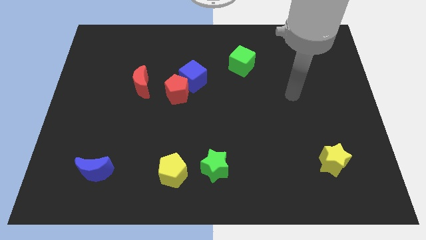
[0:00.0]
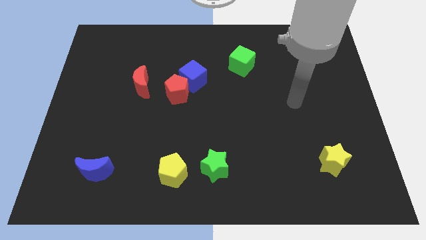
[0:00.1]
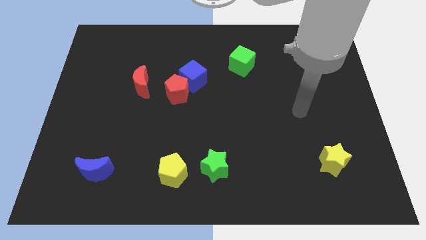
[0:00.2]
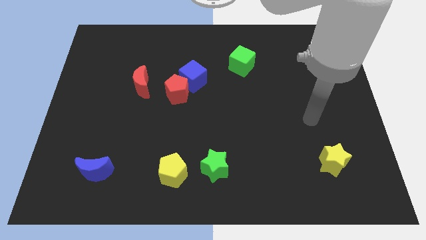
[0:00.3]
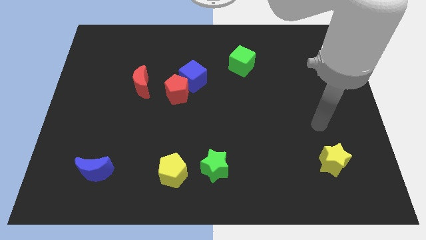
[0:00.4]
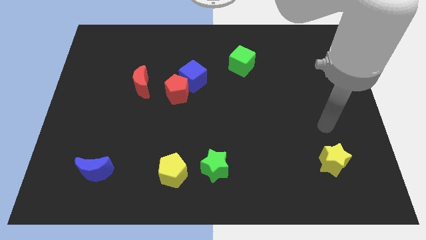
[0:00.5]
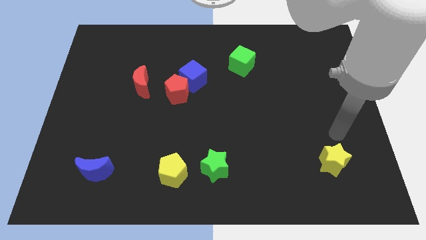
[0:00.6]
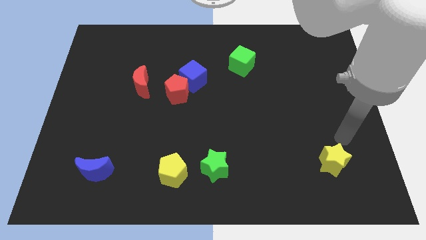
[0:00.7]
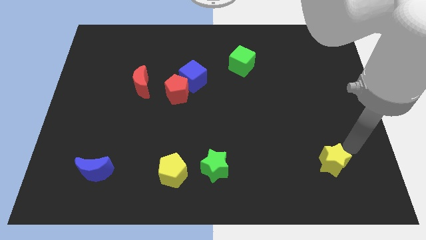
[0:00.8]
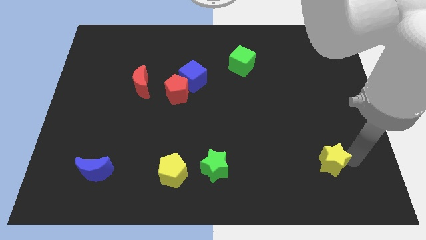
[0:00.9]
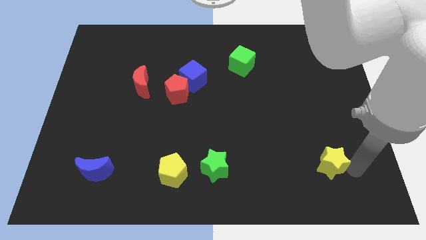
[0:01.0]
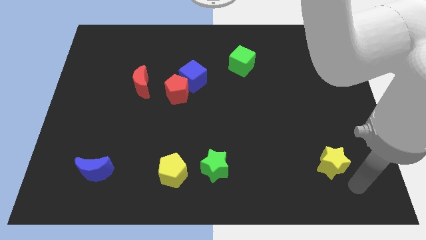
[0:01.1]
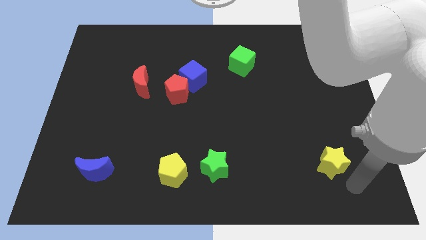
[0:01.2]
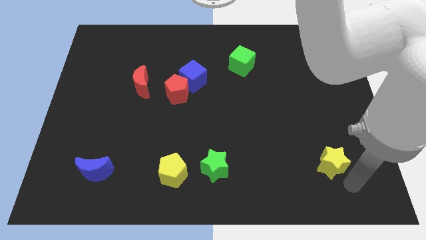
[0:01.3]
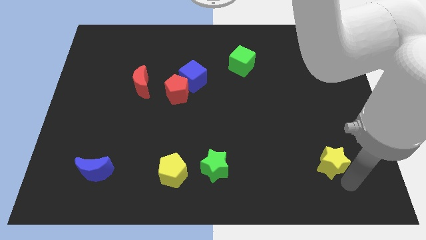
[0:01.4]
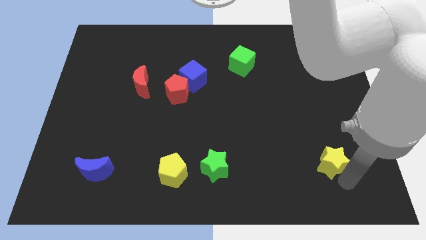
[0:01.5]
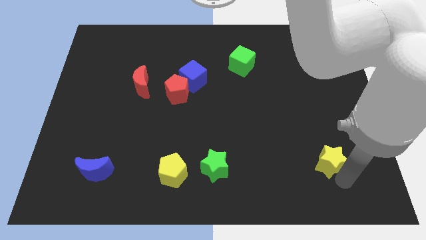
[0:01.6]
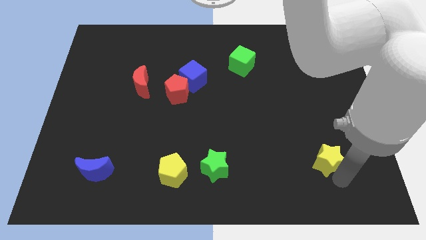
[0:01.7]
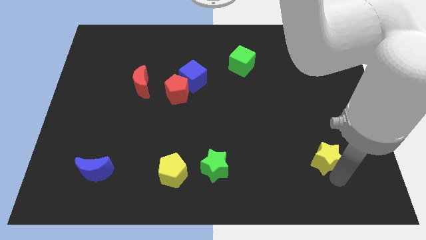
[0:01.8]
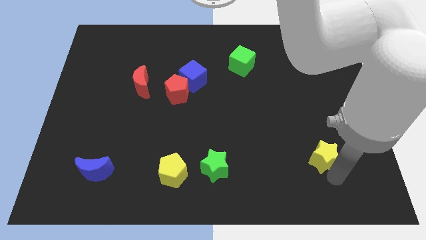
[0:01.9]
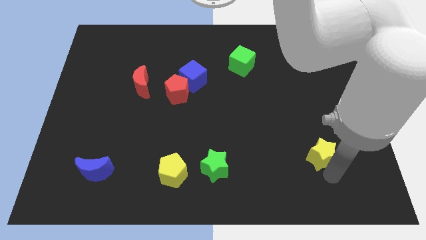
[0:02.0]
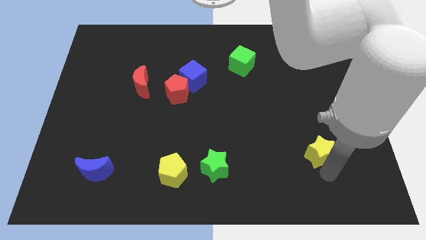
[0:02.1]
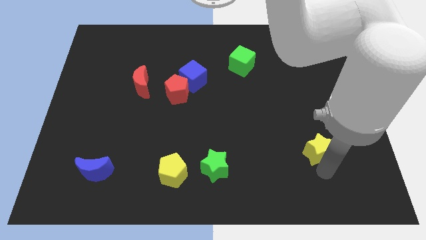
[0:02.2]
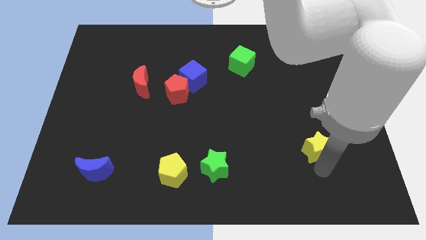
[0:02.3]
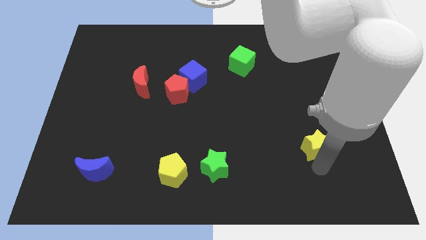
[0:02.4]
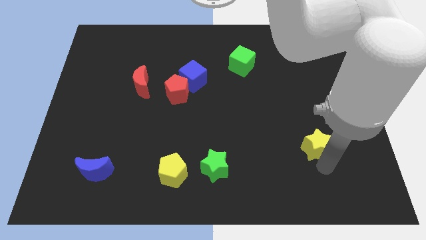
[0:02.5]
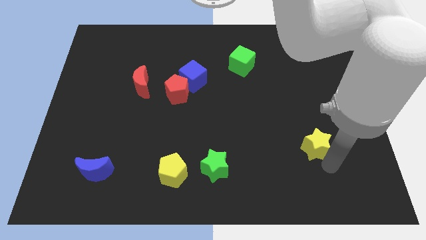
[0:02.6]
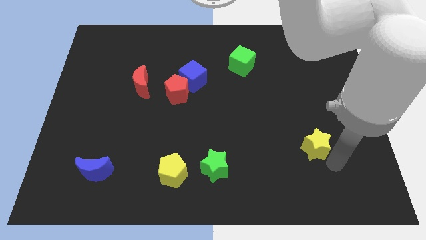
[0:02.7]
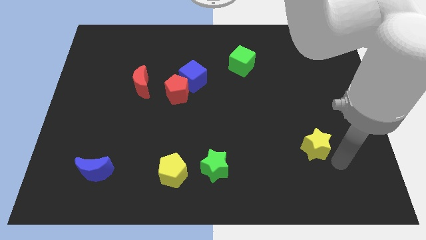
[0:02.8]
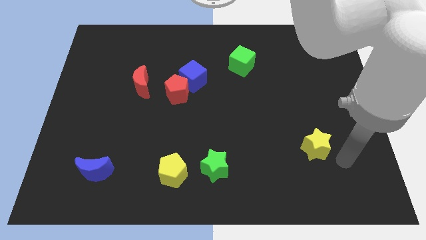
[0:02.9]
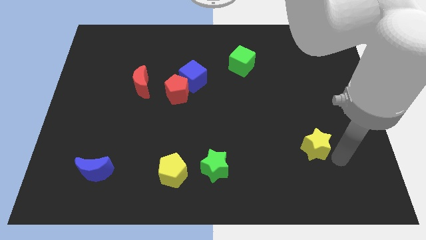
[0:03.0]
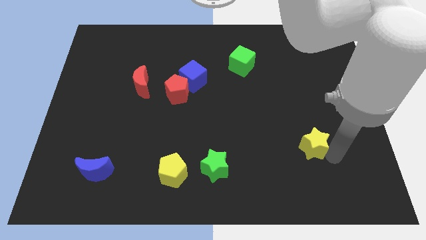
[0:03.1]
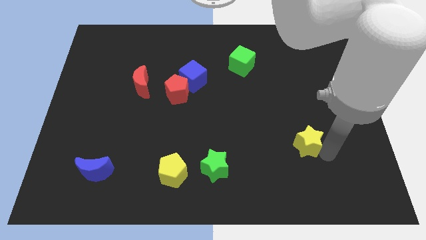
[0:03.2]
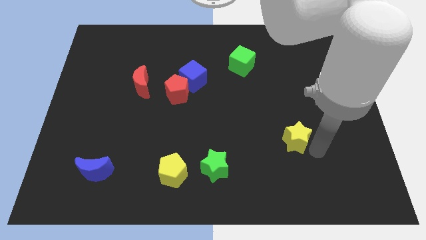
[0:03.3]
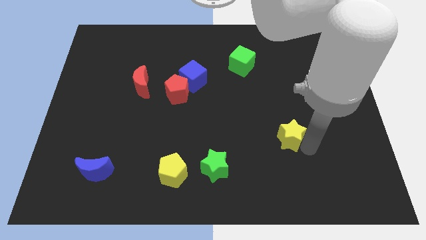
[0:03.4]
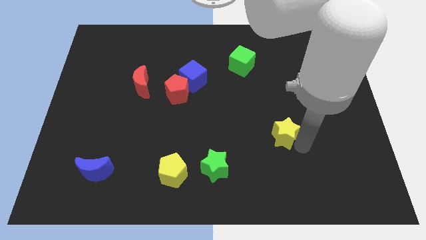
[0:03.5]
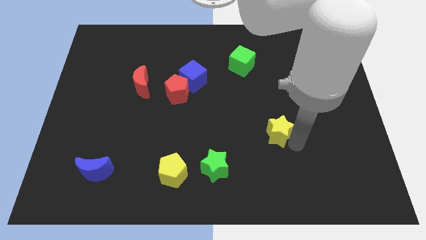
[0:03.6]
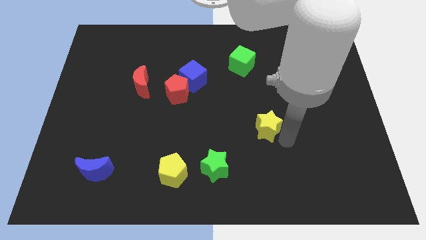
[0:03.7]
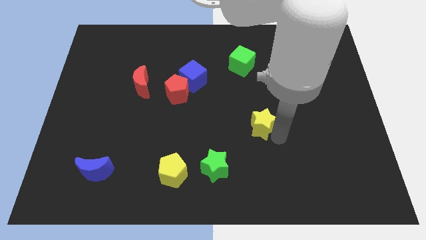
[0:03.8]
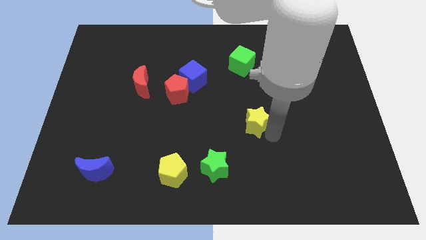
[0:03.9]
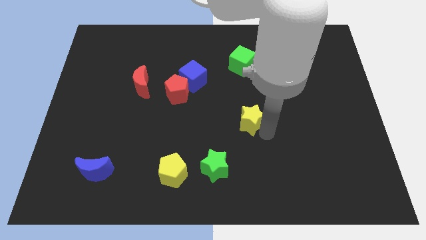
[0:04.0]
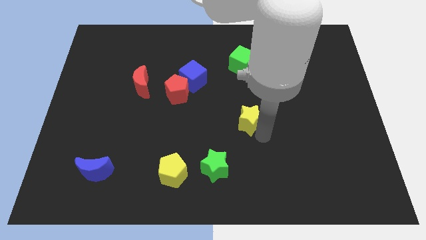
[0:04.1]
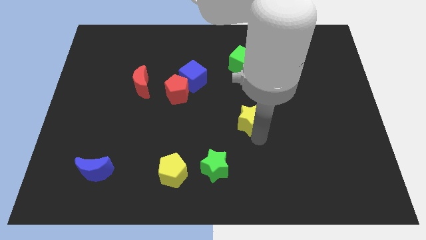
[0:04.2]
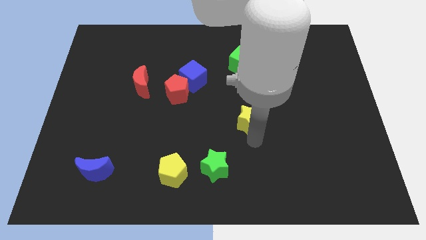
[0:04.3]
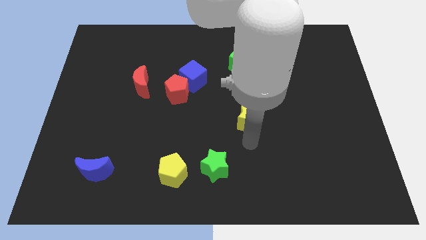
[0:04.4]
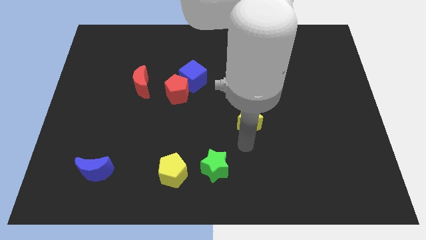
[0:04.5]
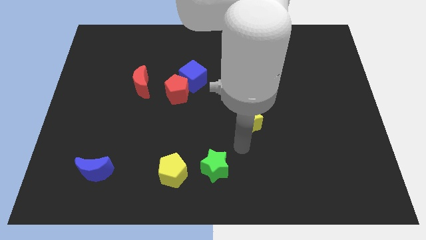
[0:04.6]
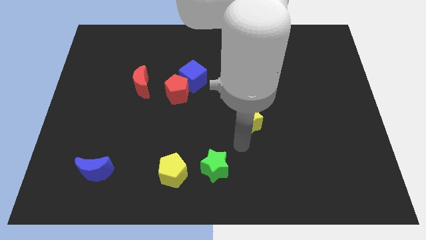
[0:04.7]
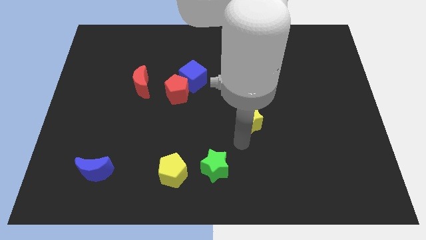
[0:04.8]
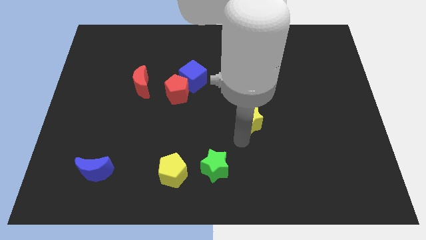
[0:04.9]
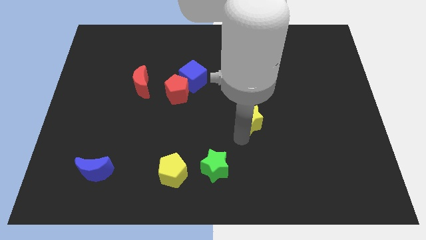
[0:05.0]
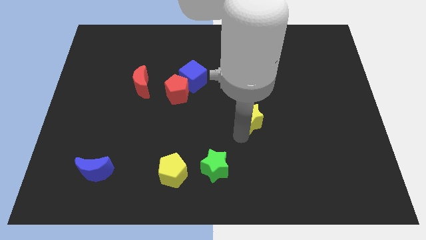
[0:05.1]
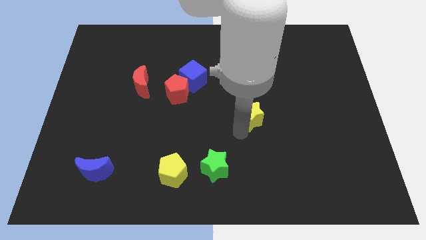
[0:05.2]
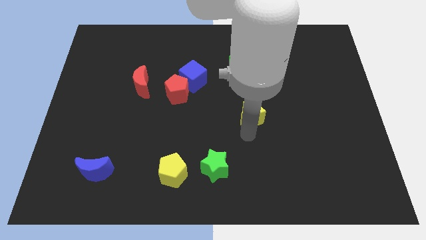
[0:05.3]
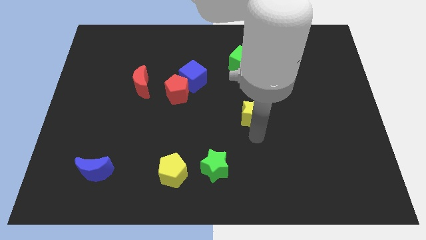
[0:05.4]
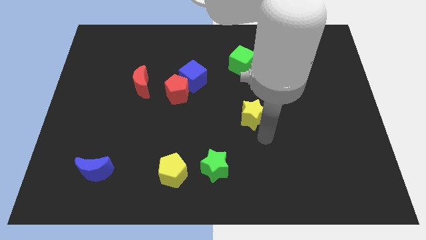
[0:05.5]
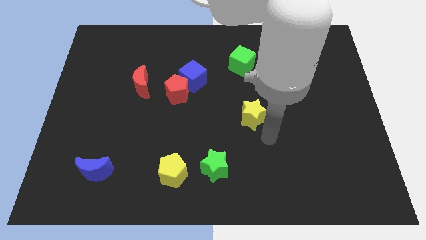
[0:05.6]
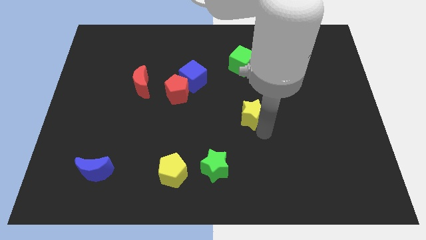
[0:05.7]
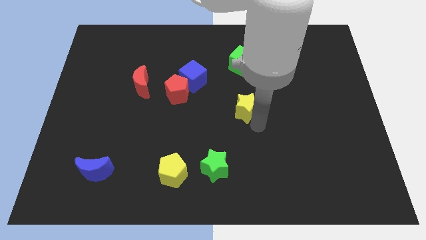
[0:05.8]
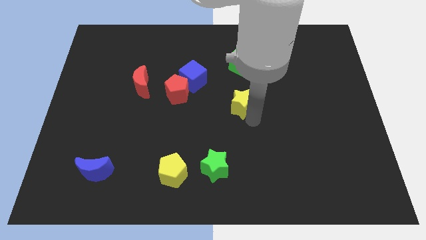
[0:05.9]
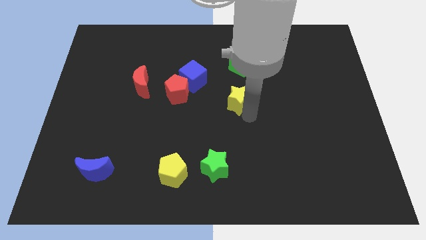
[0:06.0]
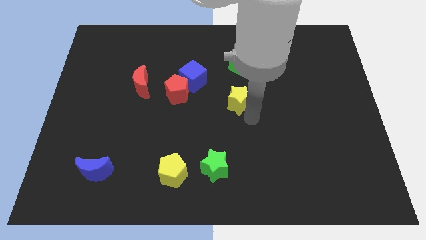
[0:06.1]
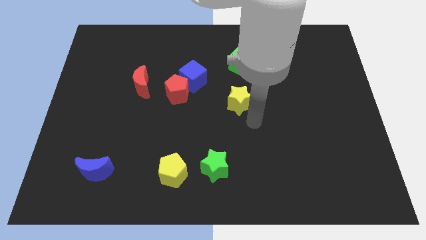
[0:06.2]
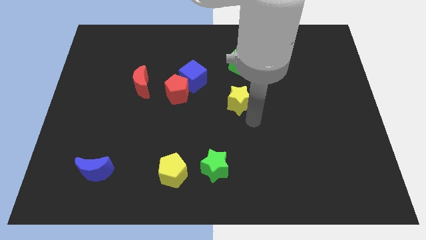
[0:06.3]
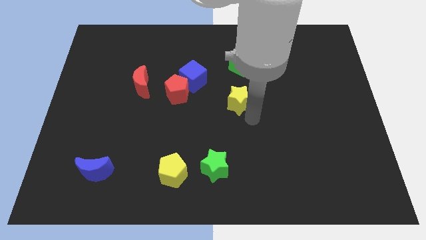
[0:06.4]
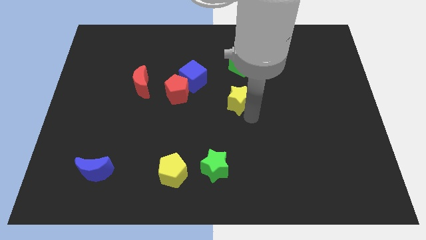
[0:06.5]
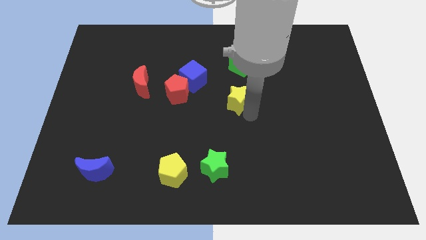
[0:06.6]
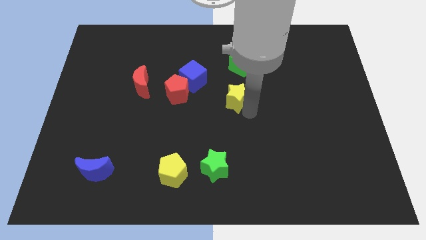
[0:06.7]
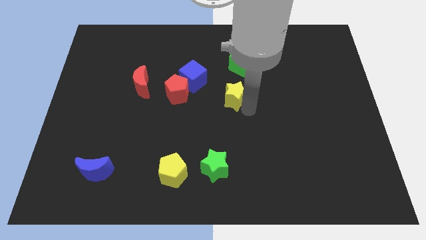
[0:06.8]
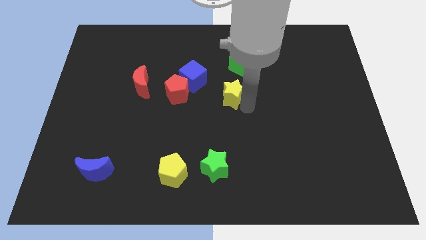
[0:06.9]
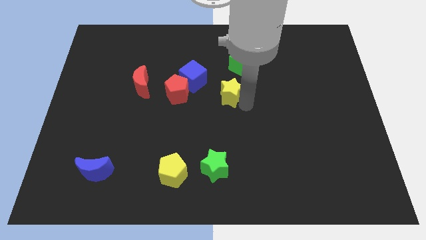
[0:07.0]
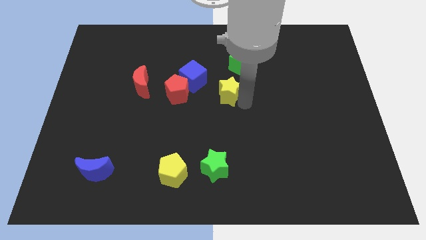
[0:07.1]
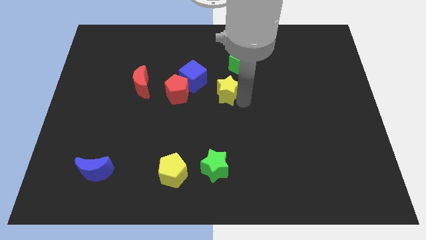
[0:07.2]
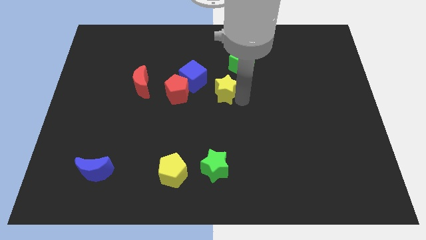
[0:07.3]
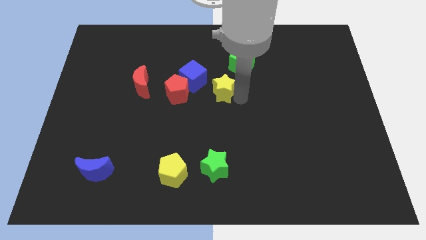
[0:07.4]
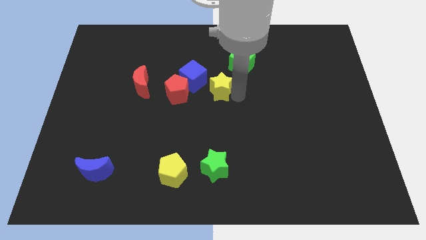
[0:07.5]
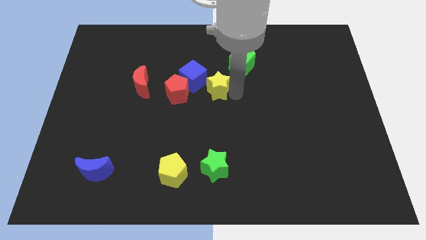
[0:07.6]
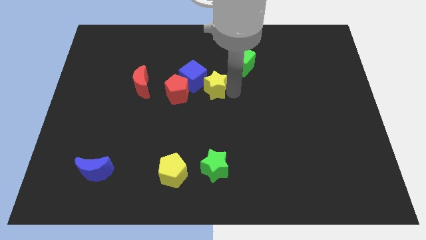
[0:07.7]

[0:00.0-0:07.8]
put the yellow star next to the blue cube
